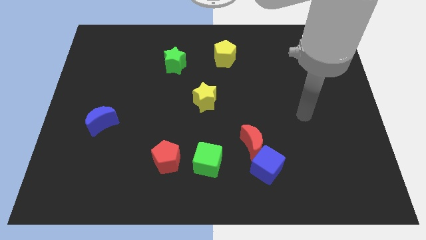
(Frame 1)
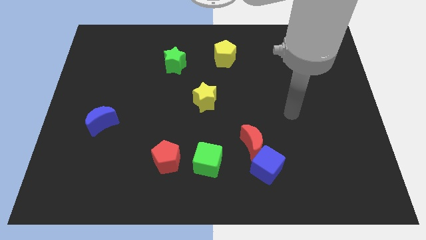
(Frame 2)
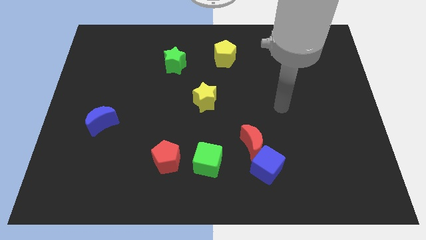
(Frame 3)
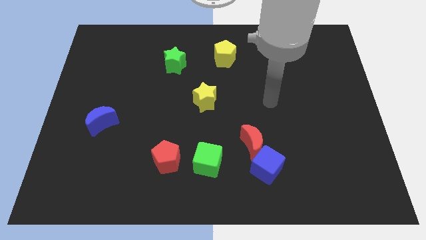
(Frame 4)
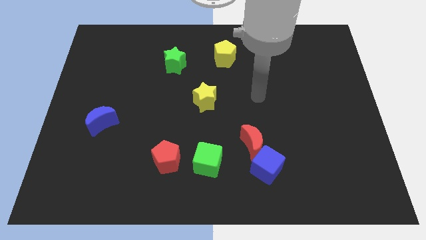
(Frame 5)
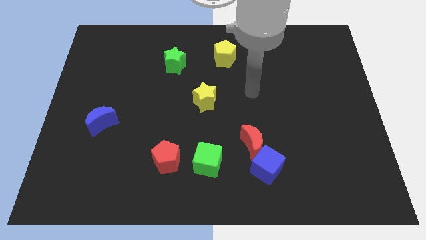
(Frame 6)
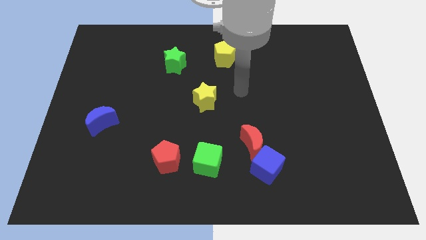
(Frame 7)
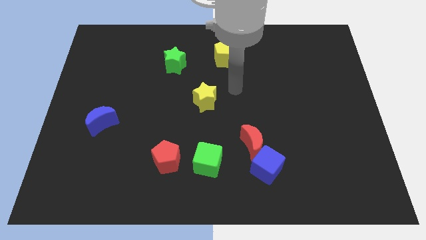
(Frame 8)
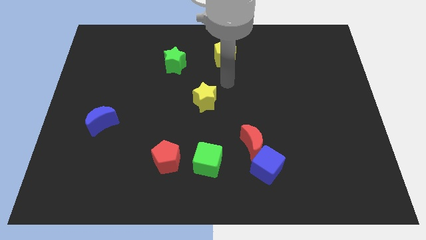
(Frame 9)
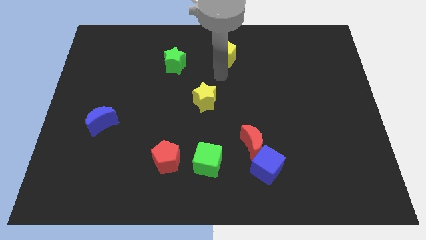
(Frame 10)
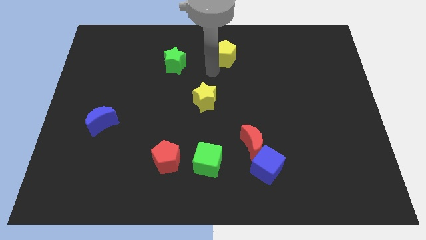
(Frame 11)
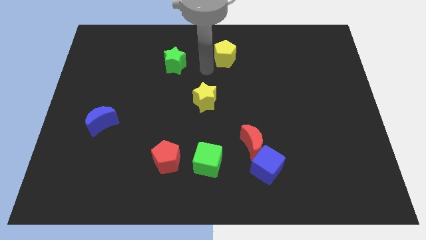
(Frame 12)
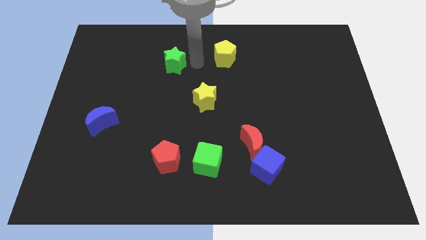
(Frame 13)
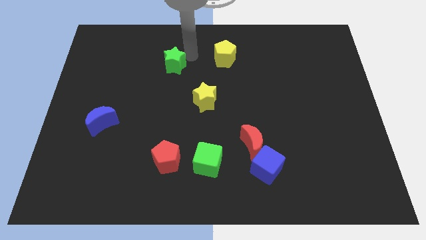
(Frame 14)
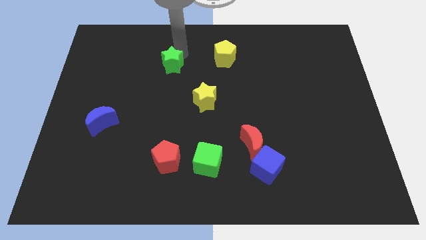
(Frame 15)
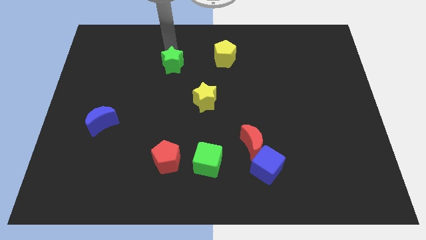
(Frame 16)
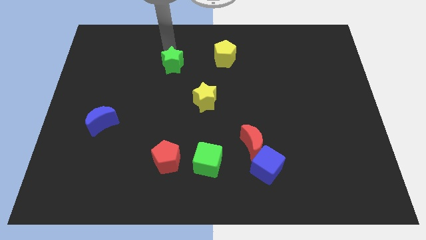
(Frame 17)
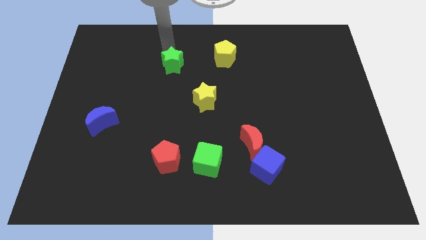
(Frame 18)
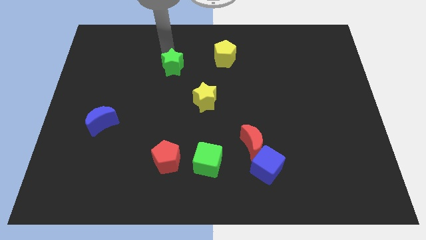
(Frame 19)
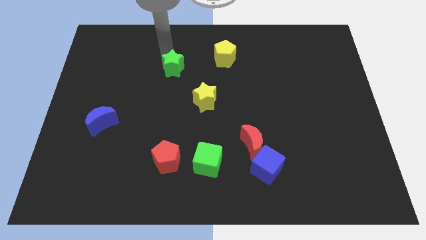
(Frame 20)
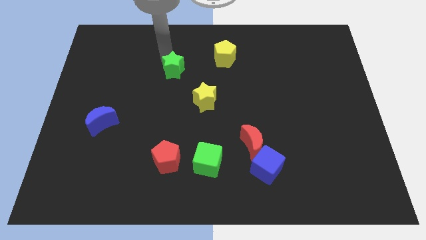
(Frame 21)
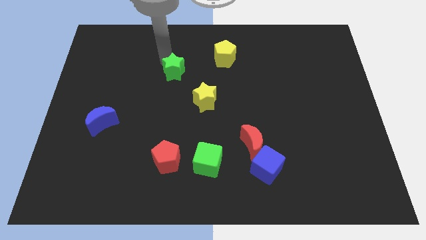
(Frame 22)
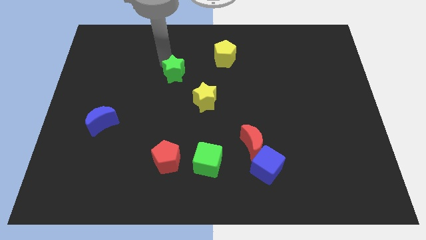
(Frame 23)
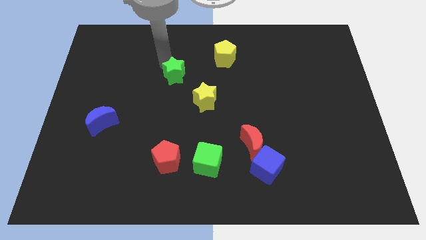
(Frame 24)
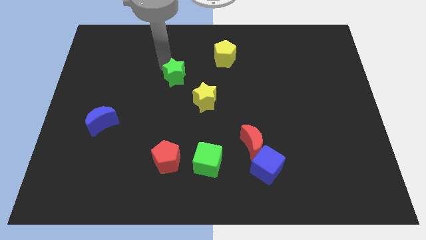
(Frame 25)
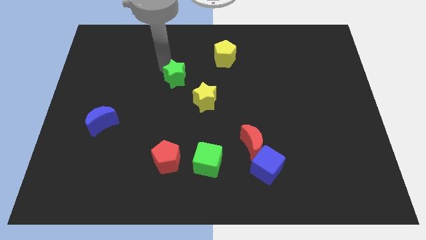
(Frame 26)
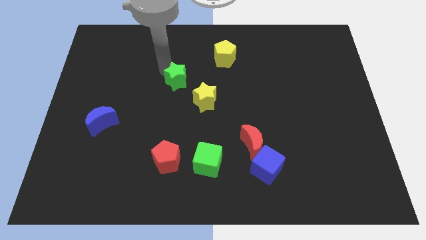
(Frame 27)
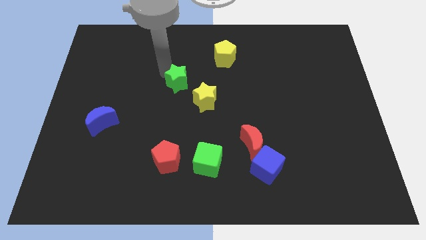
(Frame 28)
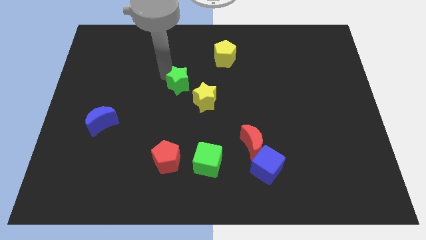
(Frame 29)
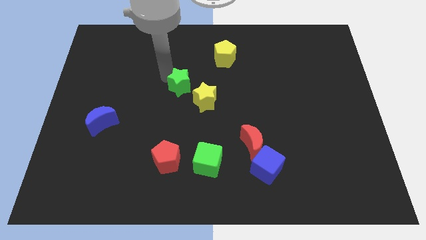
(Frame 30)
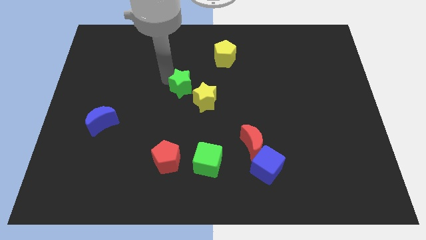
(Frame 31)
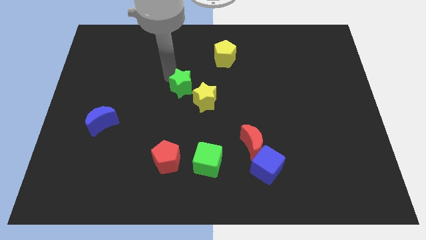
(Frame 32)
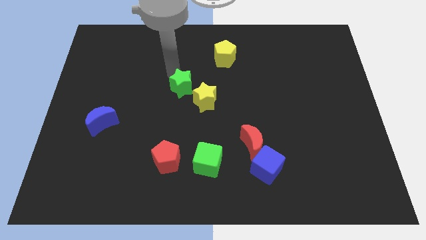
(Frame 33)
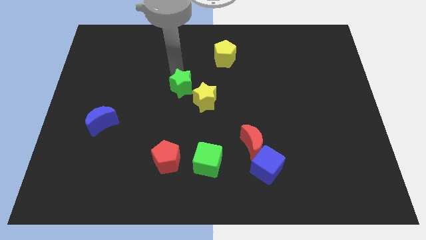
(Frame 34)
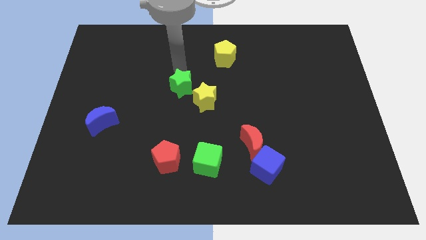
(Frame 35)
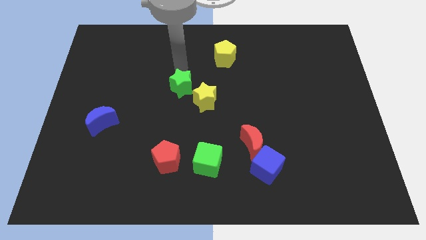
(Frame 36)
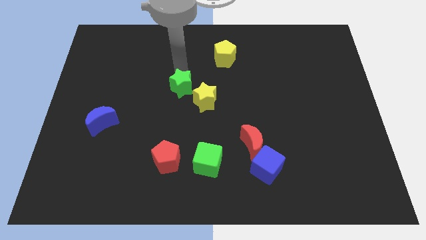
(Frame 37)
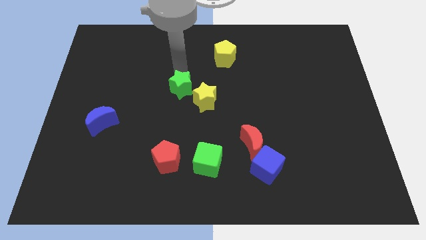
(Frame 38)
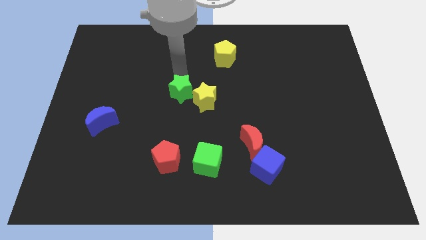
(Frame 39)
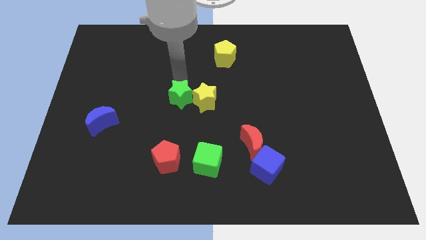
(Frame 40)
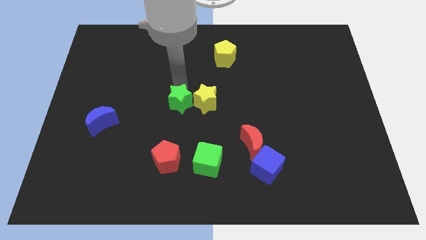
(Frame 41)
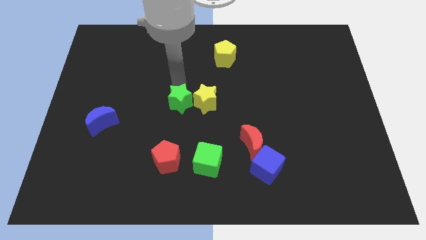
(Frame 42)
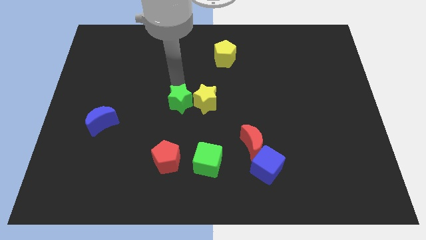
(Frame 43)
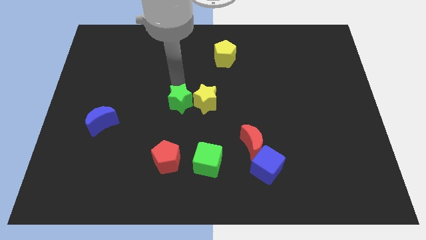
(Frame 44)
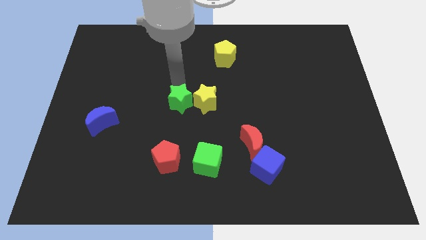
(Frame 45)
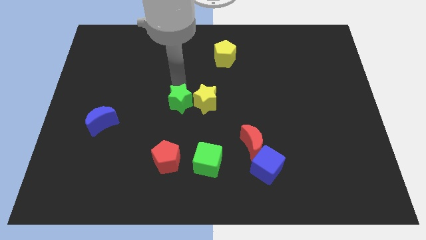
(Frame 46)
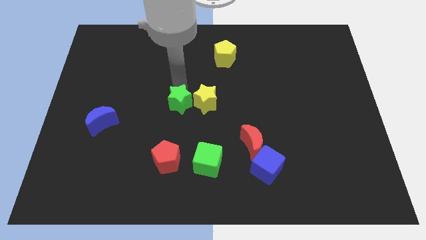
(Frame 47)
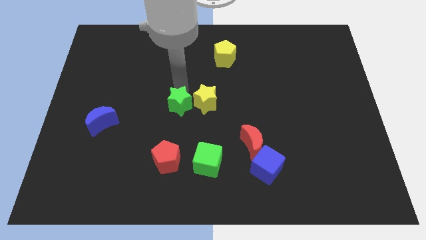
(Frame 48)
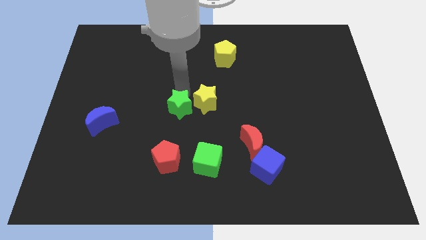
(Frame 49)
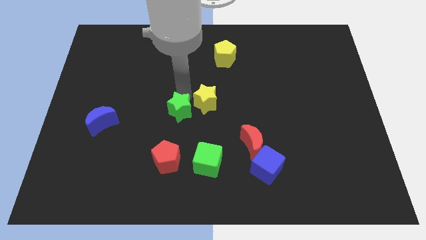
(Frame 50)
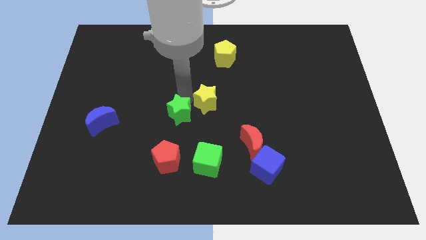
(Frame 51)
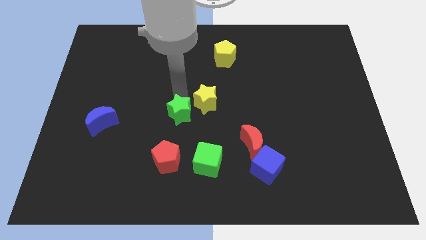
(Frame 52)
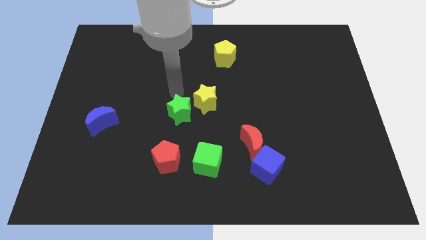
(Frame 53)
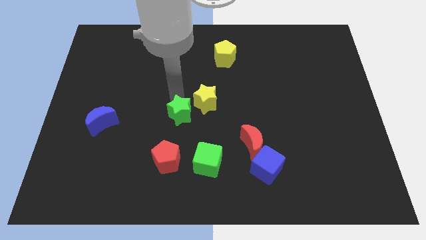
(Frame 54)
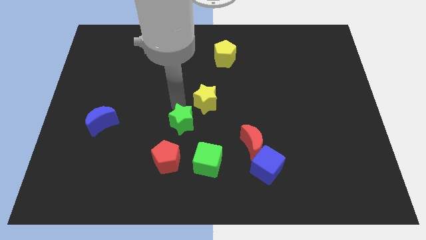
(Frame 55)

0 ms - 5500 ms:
move the green star diagonally up and to the left of the green cube

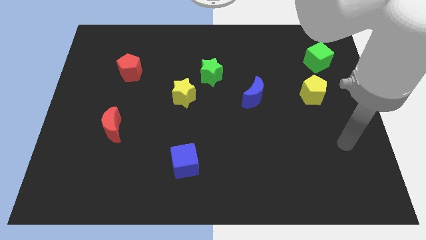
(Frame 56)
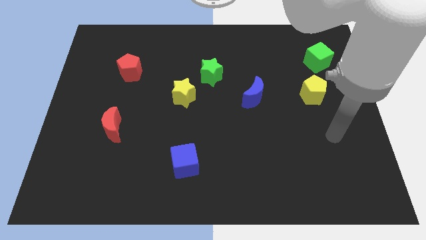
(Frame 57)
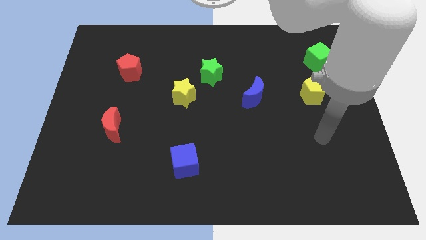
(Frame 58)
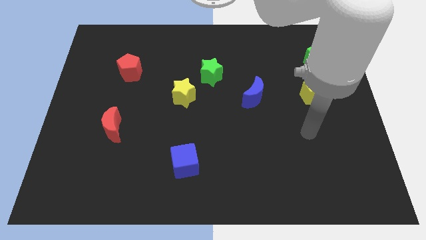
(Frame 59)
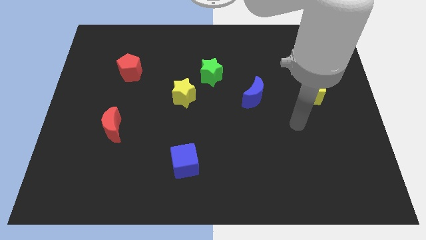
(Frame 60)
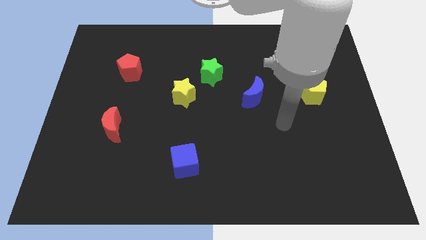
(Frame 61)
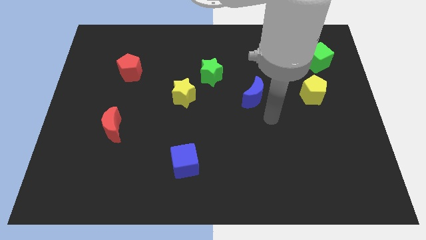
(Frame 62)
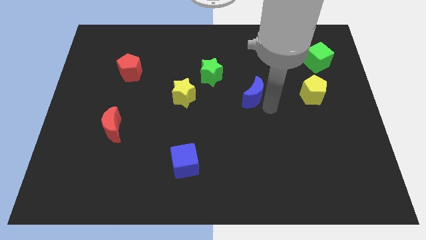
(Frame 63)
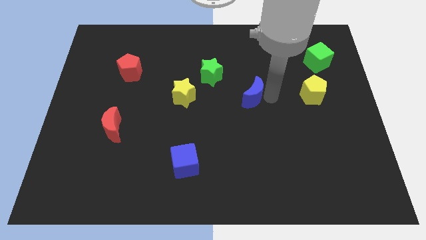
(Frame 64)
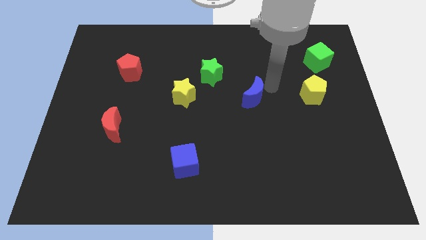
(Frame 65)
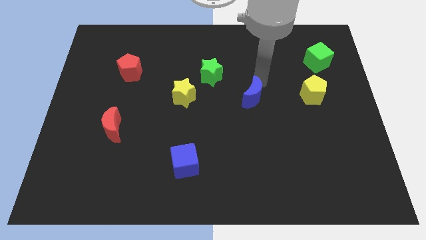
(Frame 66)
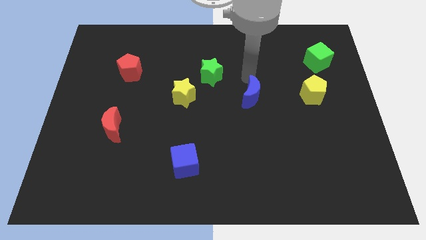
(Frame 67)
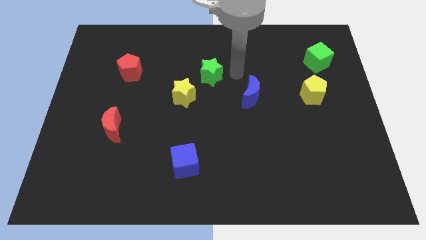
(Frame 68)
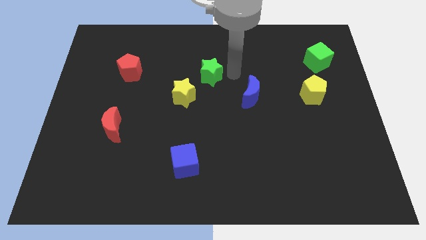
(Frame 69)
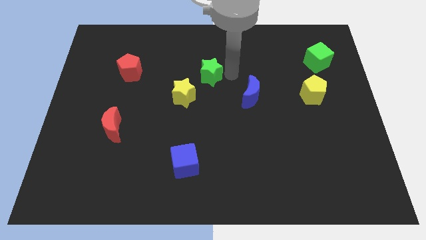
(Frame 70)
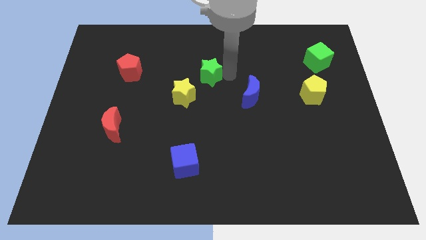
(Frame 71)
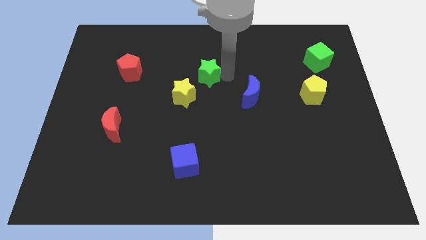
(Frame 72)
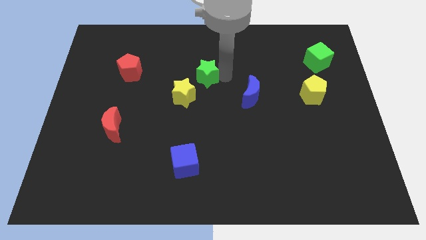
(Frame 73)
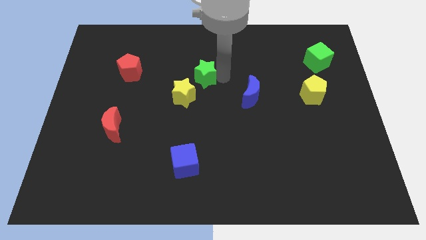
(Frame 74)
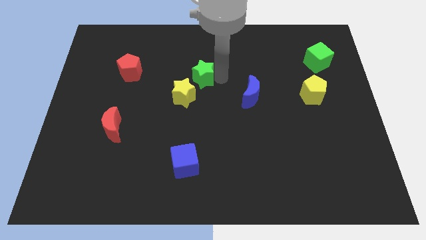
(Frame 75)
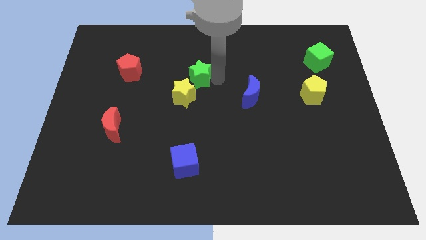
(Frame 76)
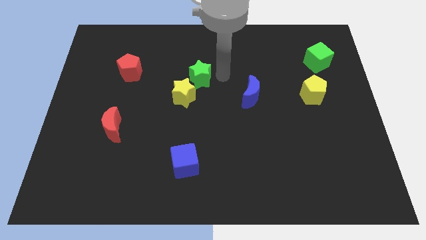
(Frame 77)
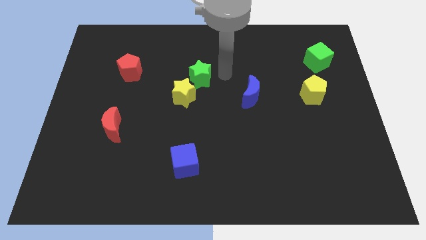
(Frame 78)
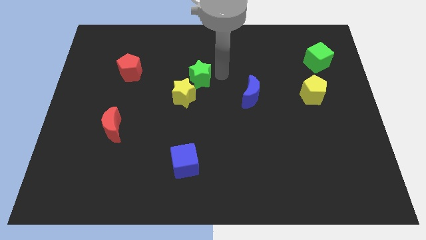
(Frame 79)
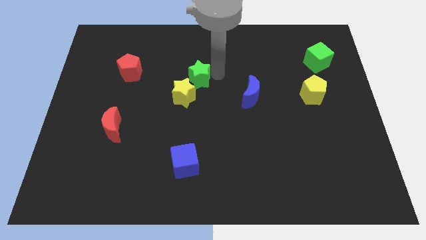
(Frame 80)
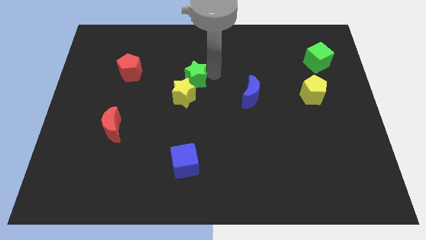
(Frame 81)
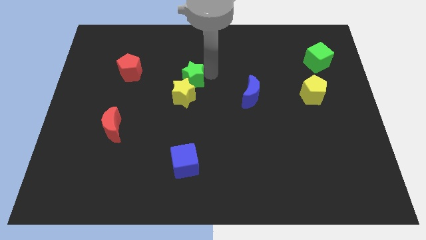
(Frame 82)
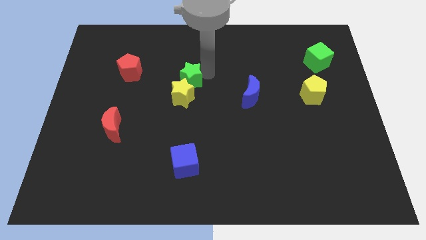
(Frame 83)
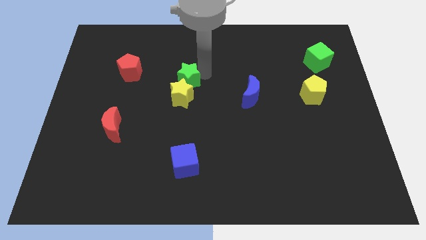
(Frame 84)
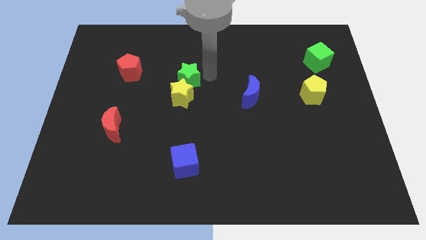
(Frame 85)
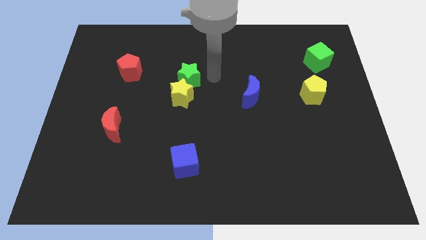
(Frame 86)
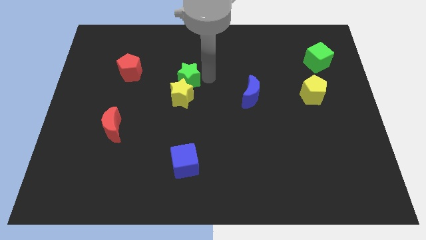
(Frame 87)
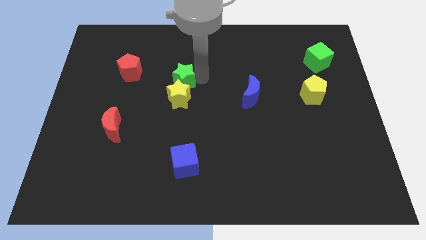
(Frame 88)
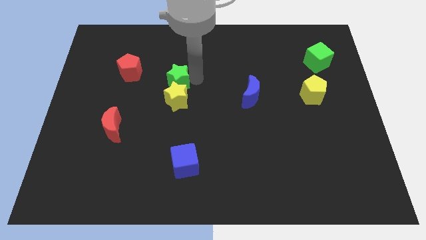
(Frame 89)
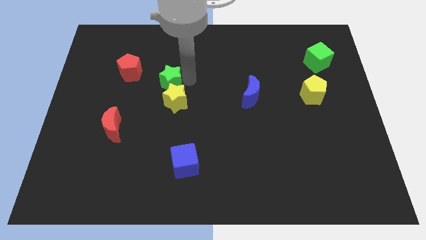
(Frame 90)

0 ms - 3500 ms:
put the green star diagonally down and to the right of the red pentagon
